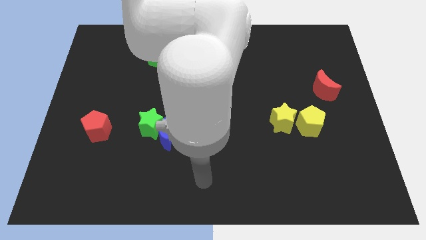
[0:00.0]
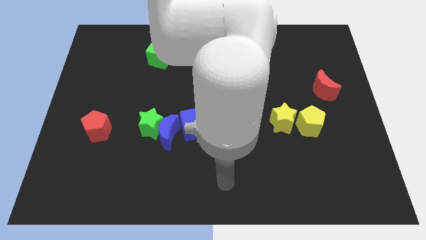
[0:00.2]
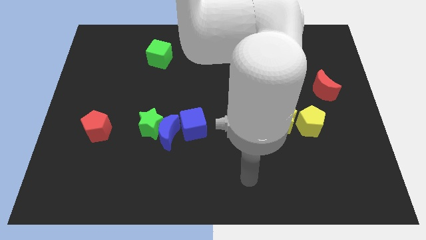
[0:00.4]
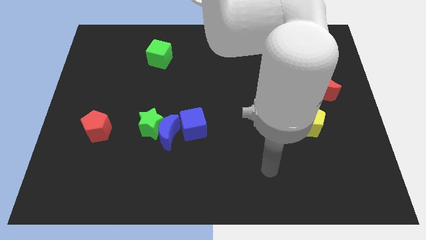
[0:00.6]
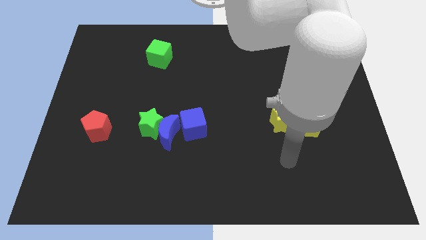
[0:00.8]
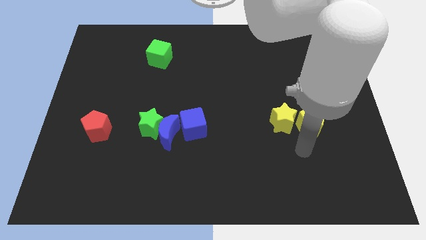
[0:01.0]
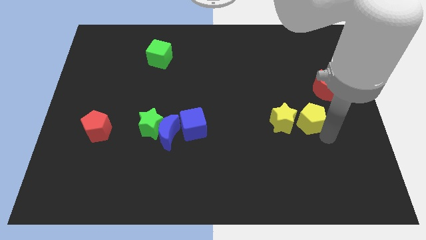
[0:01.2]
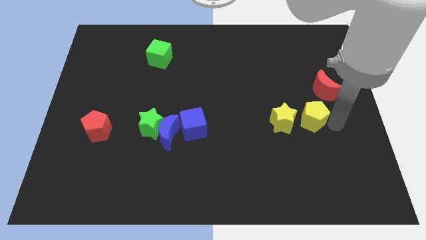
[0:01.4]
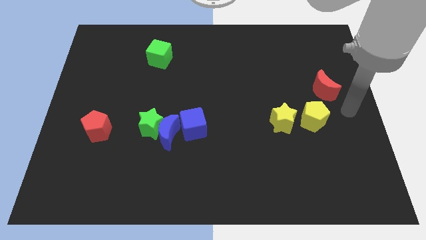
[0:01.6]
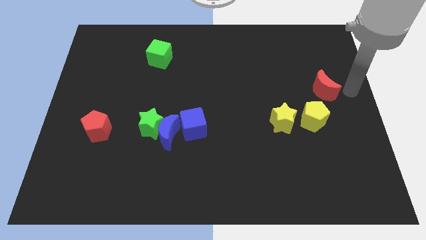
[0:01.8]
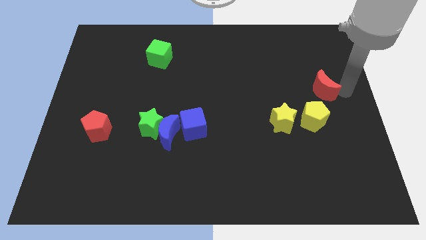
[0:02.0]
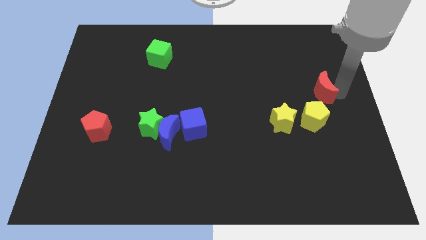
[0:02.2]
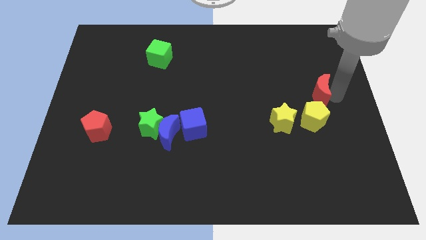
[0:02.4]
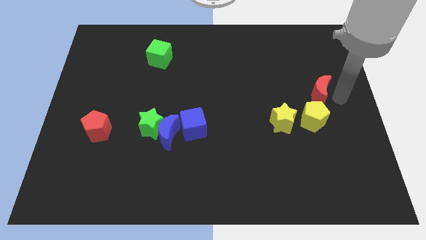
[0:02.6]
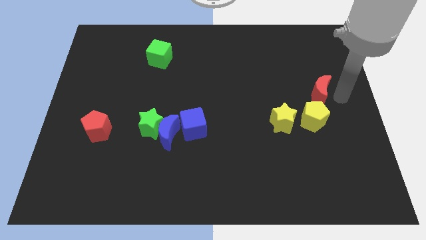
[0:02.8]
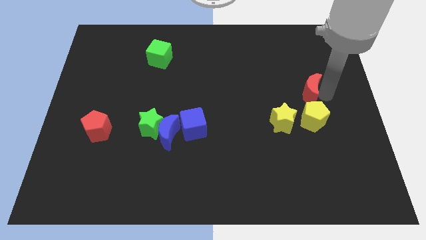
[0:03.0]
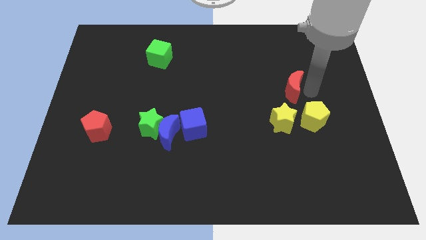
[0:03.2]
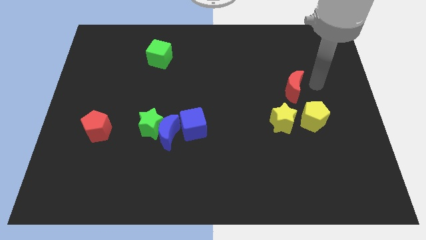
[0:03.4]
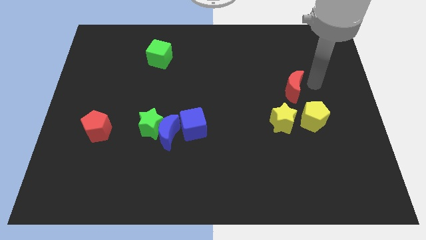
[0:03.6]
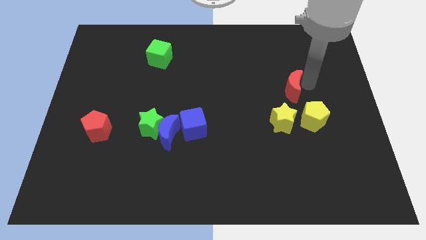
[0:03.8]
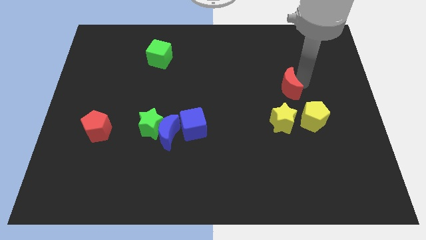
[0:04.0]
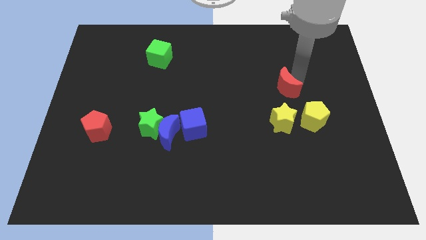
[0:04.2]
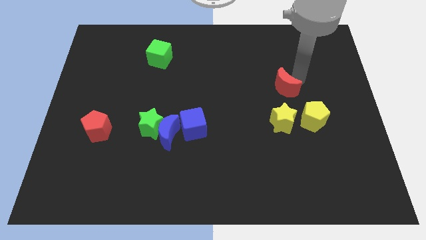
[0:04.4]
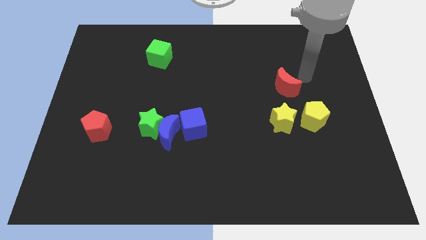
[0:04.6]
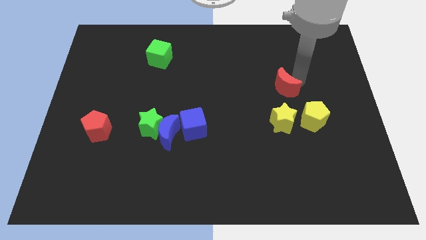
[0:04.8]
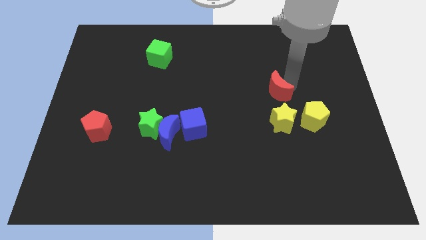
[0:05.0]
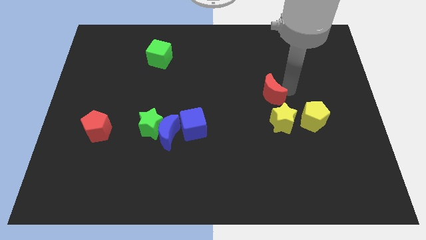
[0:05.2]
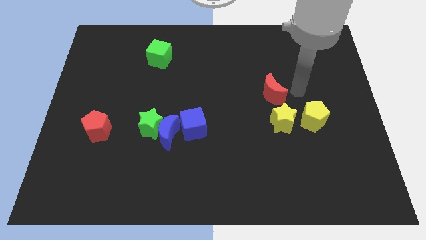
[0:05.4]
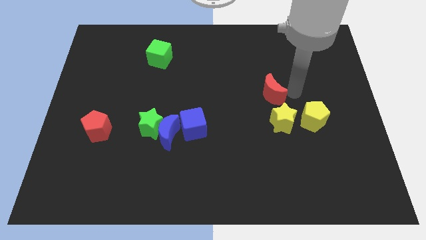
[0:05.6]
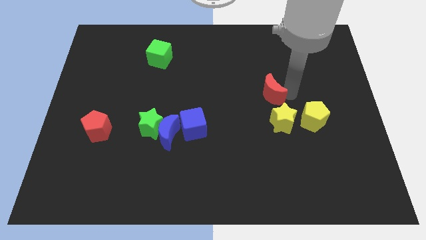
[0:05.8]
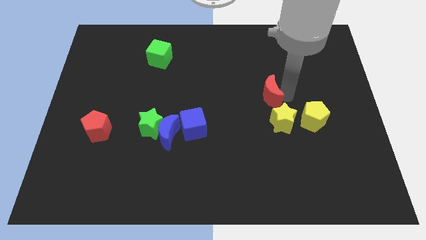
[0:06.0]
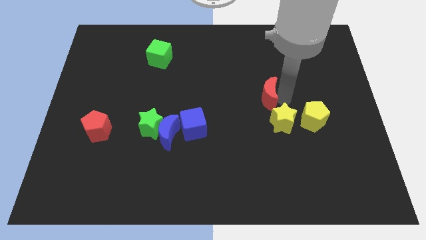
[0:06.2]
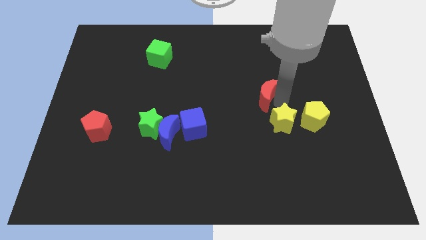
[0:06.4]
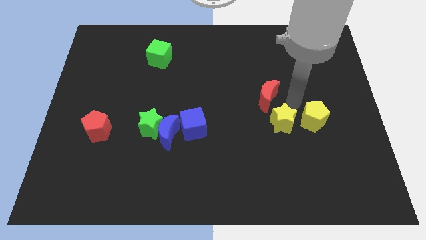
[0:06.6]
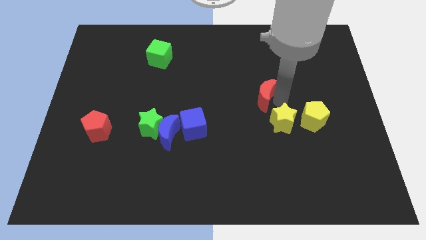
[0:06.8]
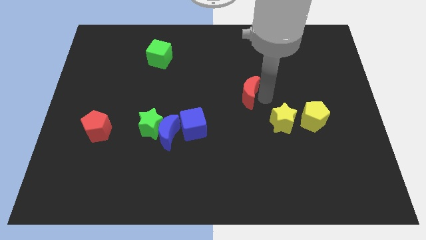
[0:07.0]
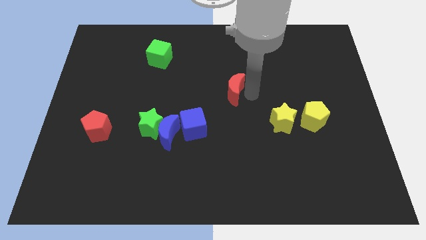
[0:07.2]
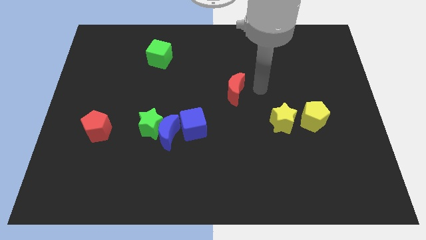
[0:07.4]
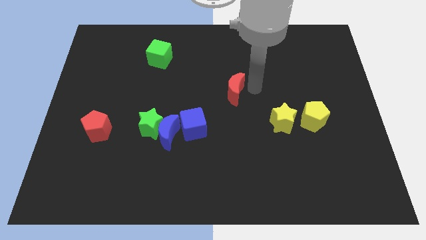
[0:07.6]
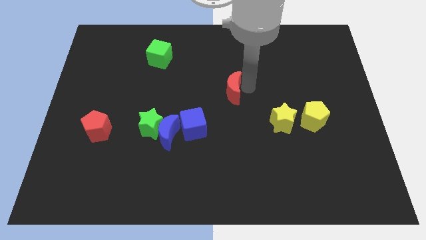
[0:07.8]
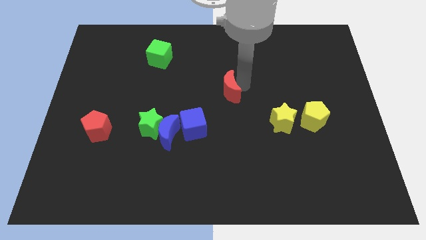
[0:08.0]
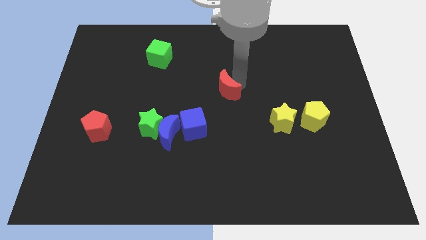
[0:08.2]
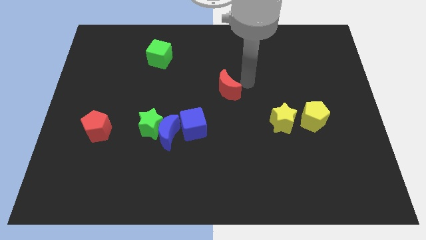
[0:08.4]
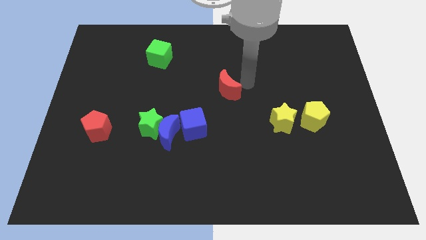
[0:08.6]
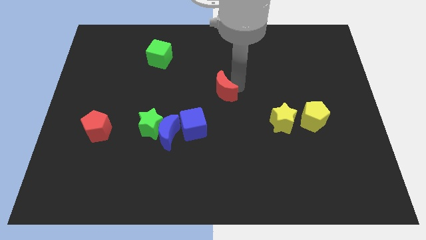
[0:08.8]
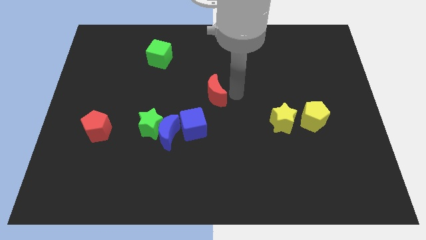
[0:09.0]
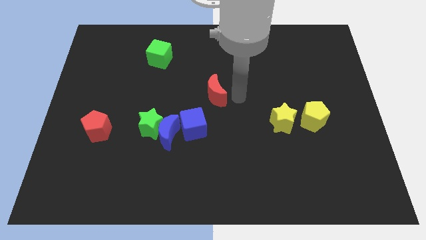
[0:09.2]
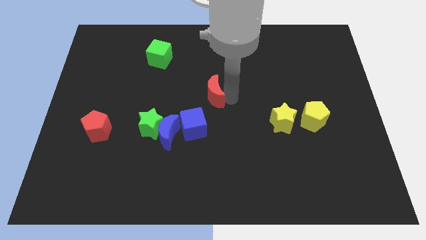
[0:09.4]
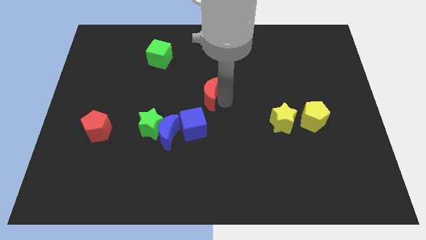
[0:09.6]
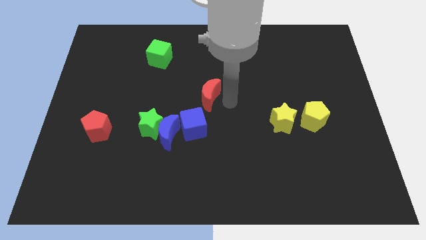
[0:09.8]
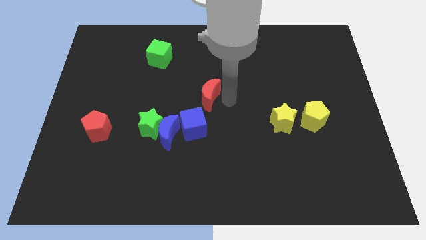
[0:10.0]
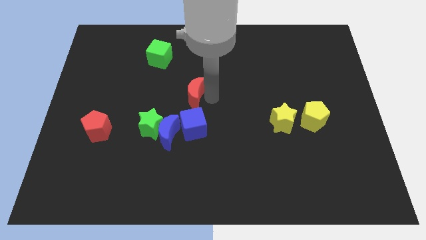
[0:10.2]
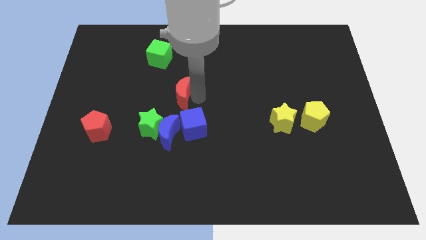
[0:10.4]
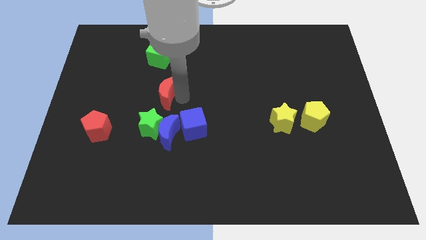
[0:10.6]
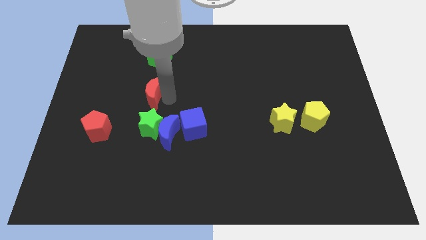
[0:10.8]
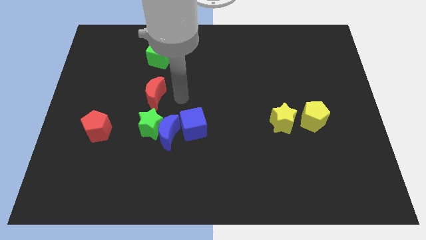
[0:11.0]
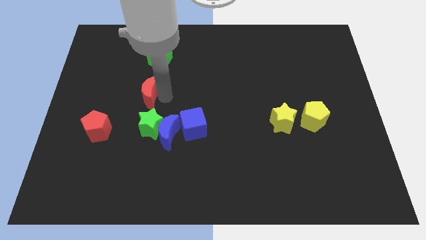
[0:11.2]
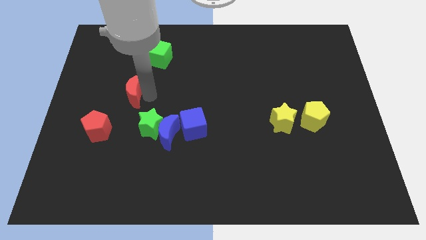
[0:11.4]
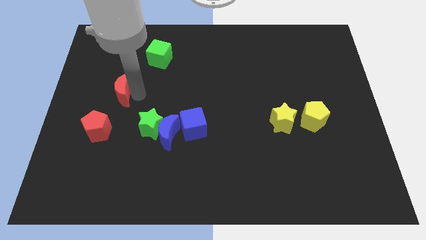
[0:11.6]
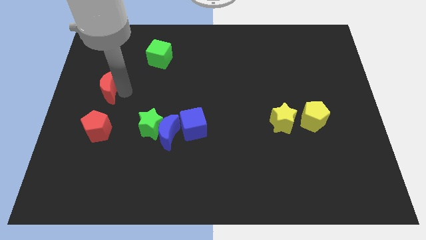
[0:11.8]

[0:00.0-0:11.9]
put the red moon to the center left

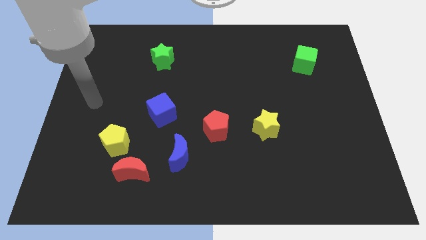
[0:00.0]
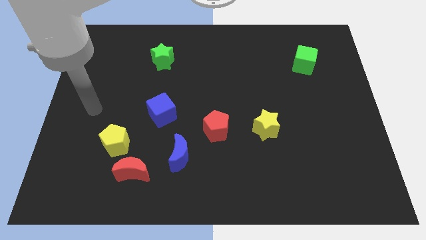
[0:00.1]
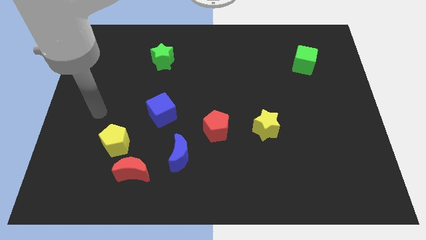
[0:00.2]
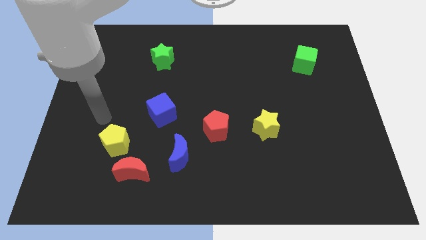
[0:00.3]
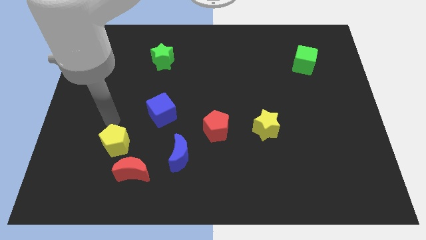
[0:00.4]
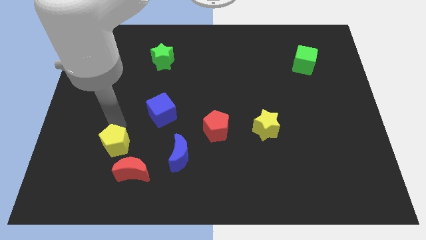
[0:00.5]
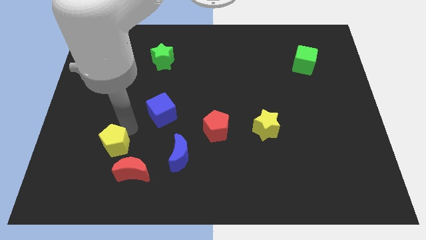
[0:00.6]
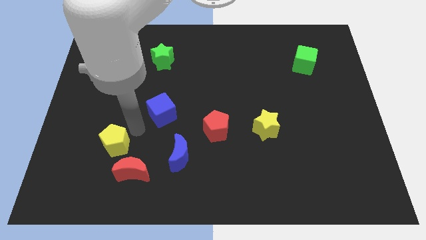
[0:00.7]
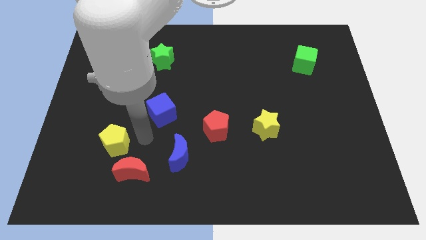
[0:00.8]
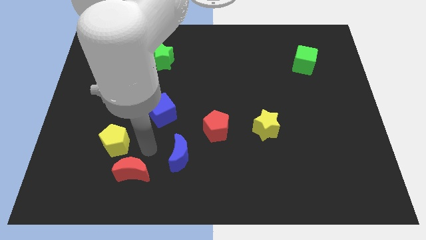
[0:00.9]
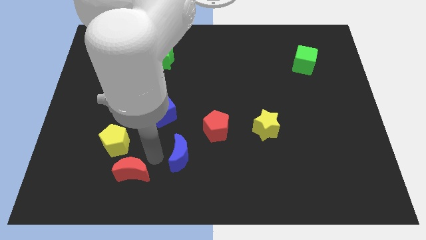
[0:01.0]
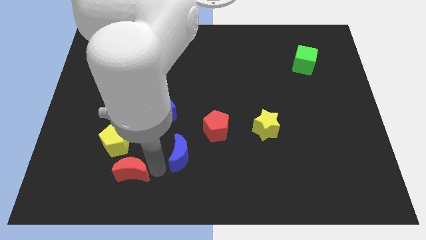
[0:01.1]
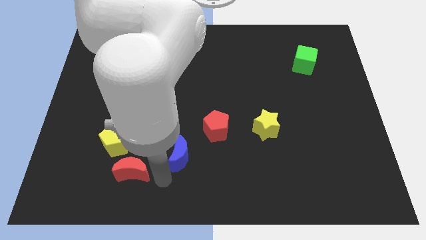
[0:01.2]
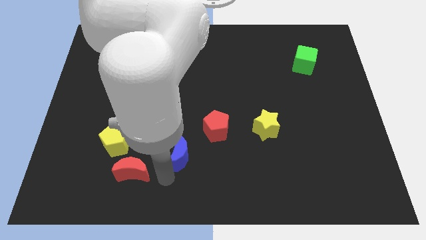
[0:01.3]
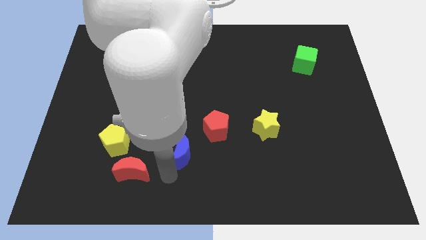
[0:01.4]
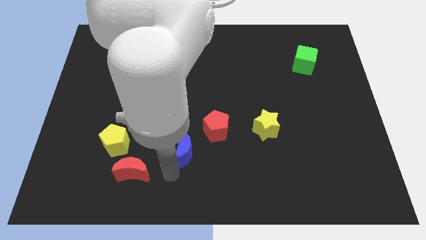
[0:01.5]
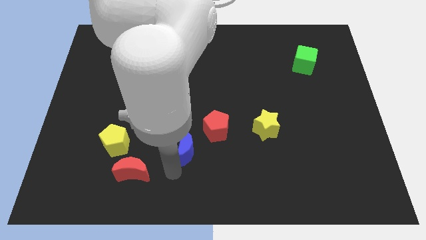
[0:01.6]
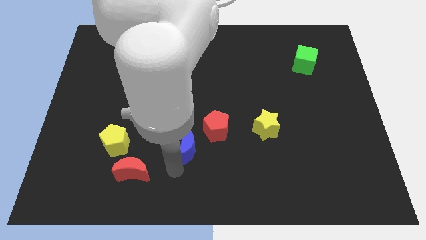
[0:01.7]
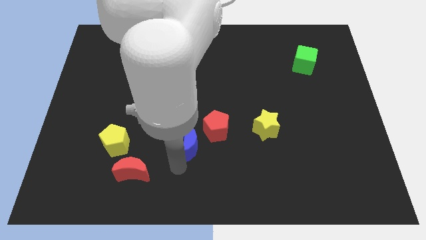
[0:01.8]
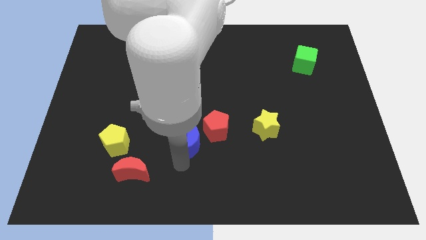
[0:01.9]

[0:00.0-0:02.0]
put the blue moon to the middle
